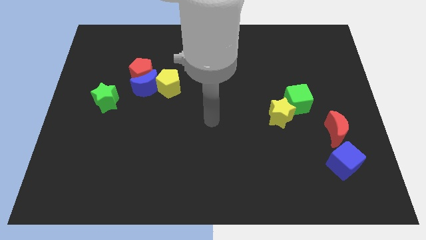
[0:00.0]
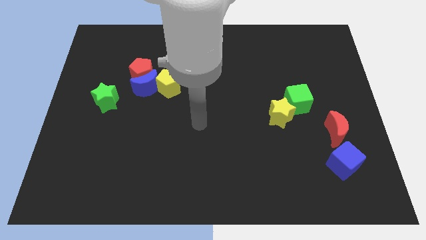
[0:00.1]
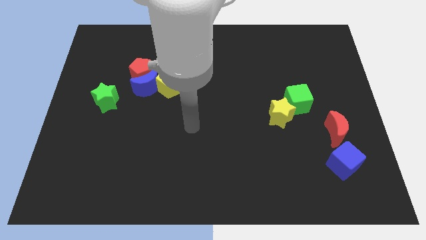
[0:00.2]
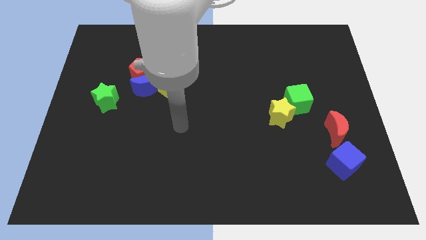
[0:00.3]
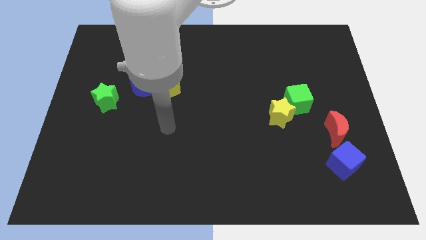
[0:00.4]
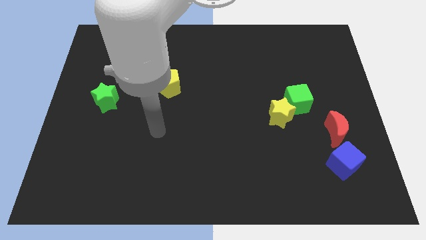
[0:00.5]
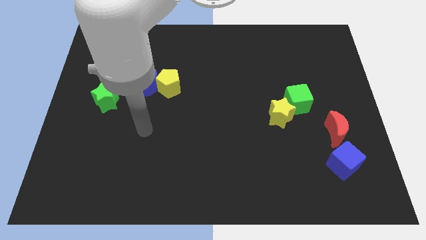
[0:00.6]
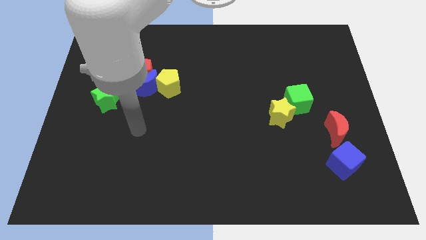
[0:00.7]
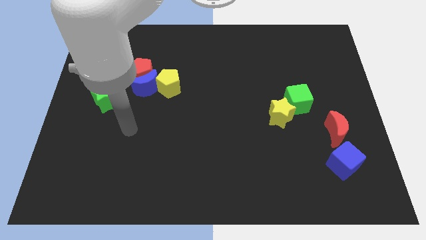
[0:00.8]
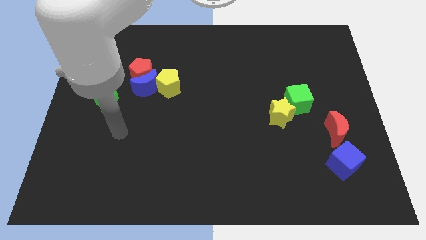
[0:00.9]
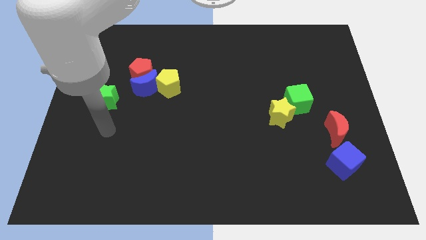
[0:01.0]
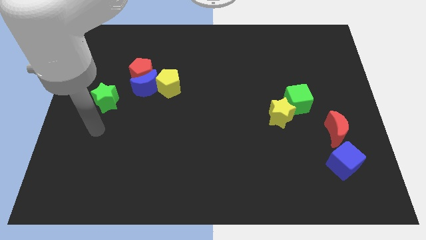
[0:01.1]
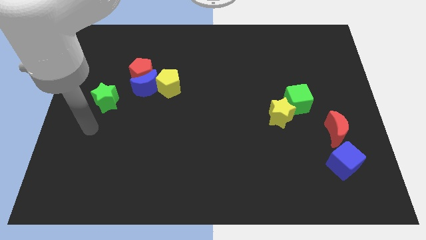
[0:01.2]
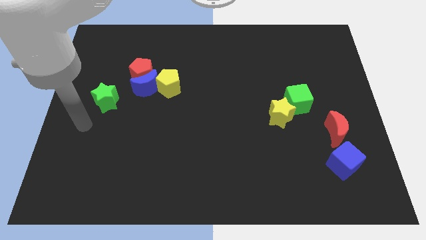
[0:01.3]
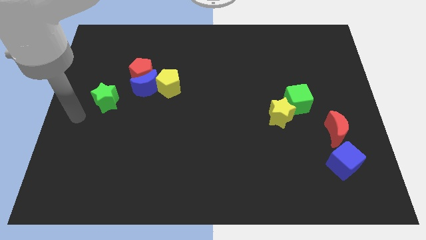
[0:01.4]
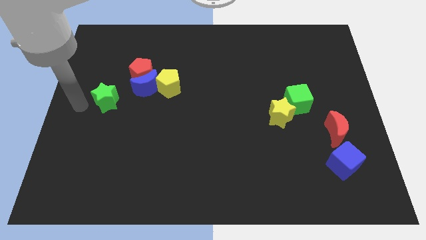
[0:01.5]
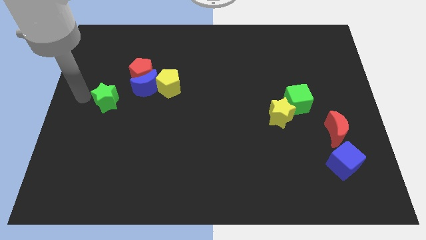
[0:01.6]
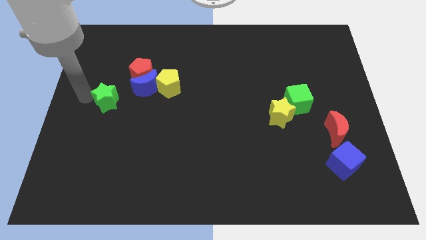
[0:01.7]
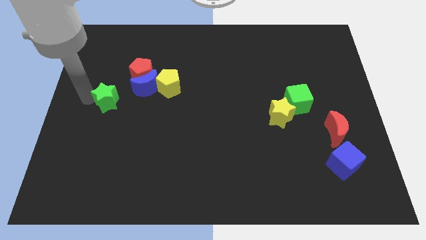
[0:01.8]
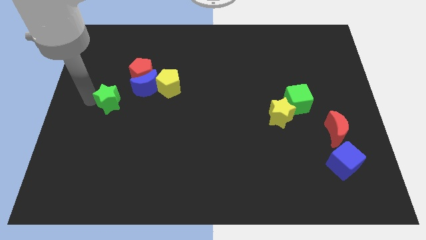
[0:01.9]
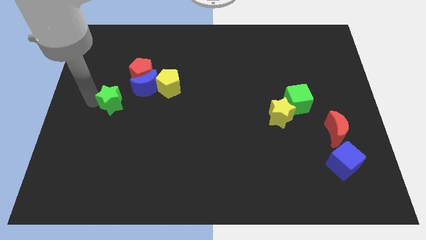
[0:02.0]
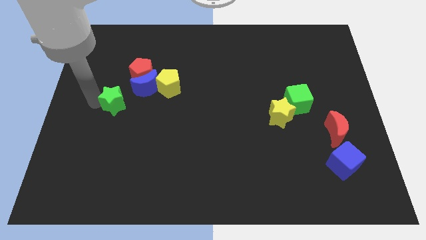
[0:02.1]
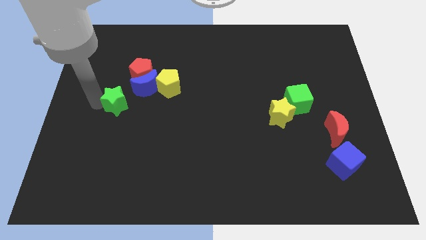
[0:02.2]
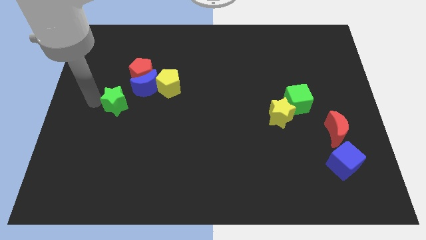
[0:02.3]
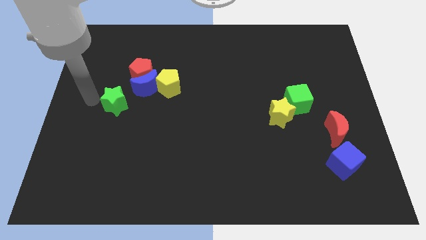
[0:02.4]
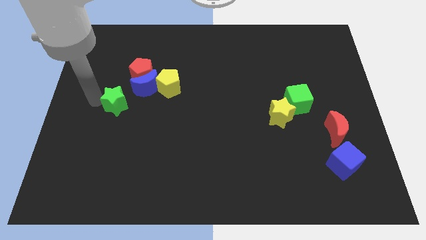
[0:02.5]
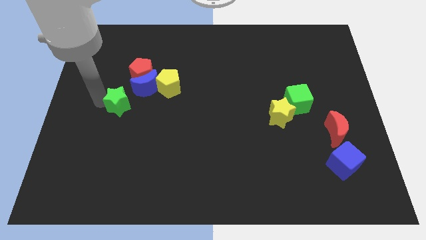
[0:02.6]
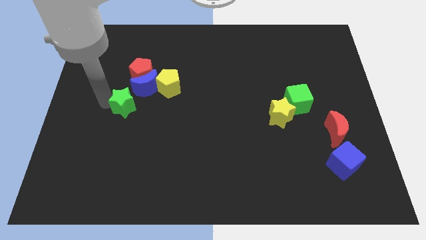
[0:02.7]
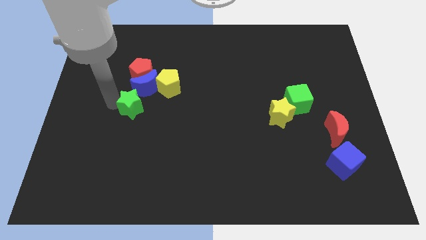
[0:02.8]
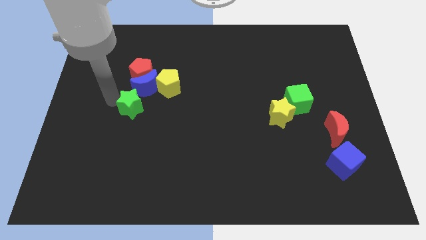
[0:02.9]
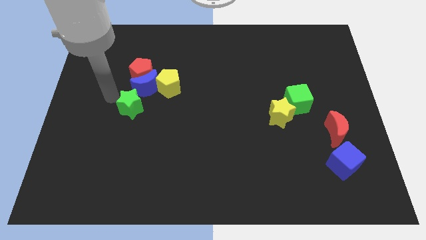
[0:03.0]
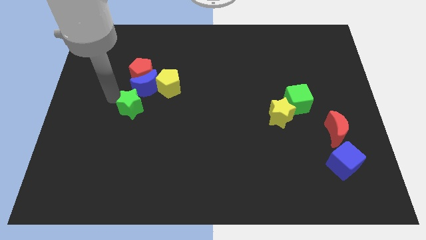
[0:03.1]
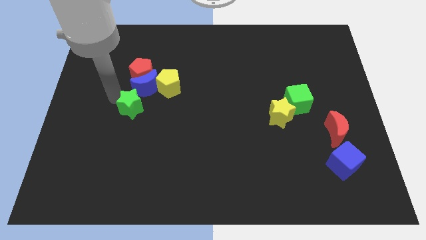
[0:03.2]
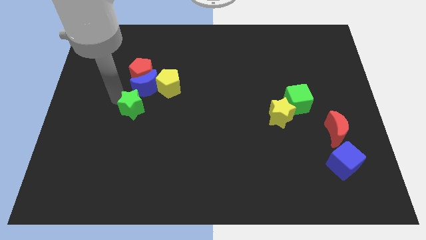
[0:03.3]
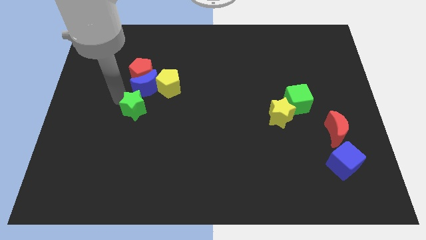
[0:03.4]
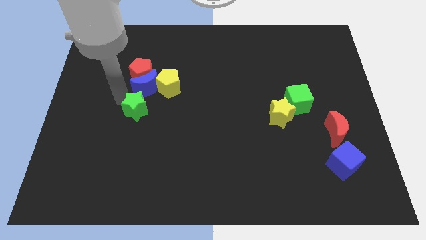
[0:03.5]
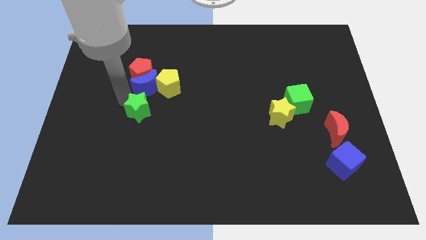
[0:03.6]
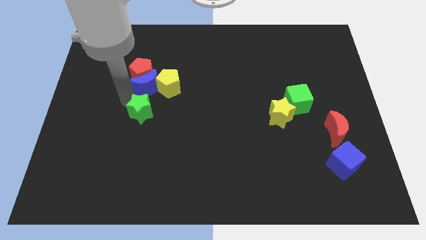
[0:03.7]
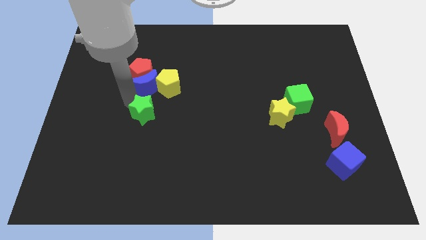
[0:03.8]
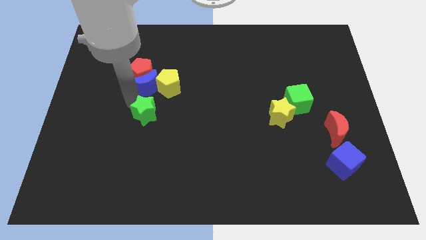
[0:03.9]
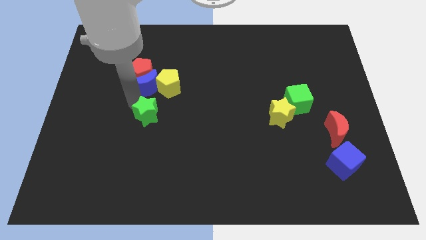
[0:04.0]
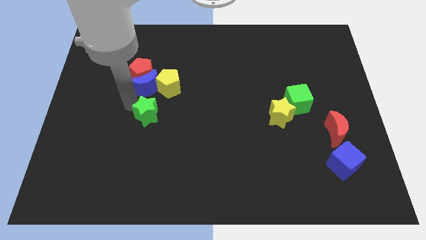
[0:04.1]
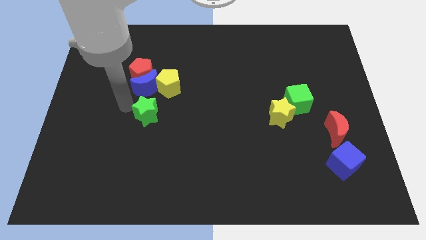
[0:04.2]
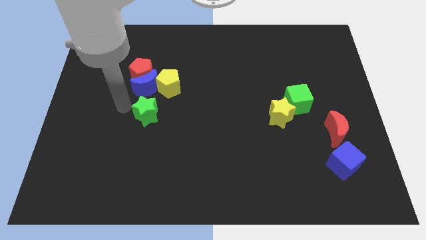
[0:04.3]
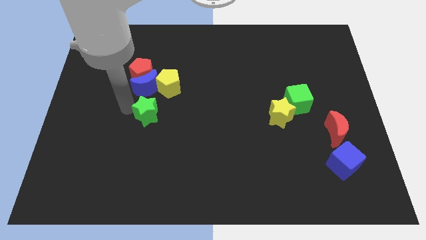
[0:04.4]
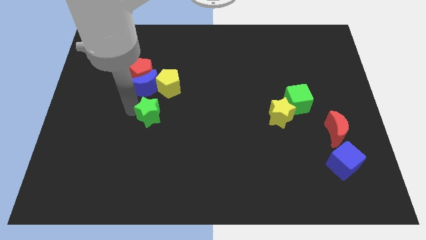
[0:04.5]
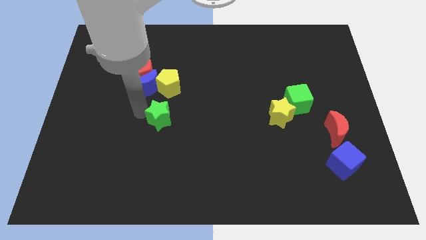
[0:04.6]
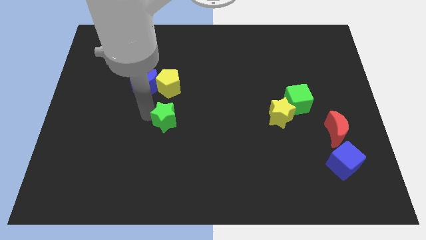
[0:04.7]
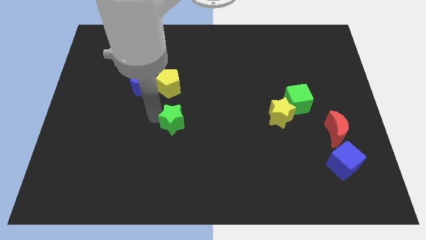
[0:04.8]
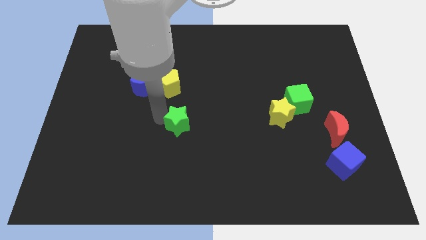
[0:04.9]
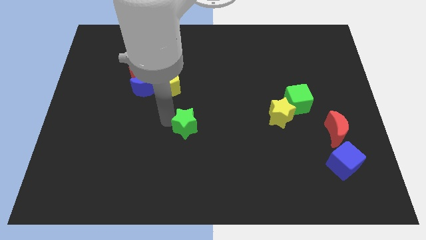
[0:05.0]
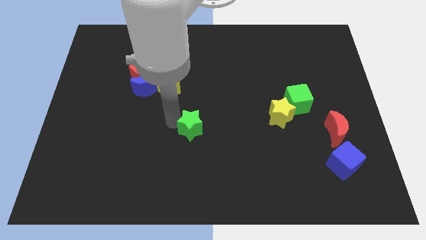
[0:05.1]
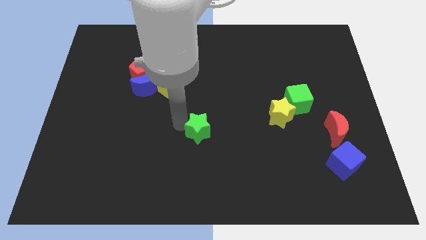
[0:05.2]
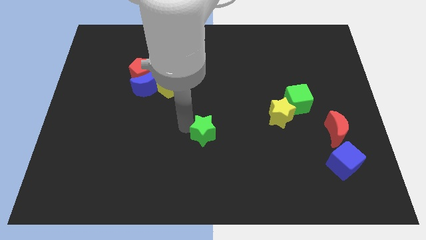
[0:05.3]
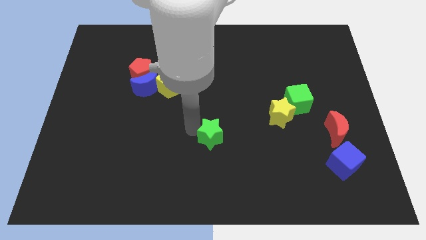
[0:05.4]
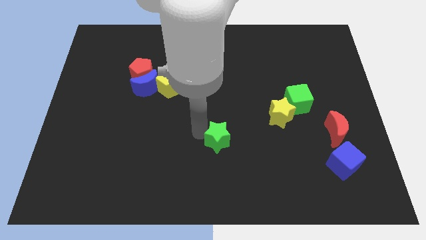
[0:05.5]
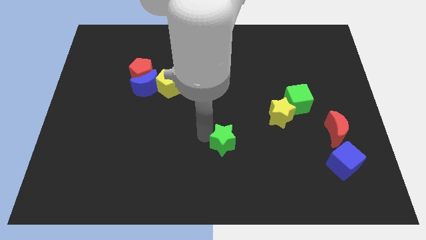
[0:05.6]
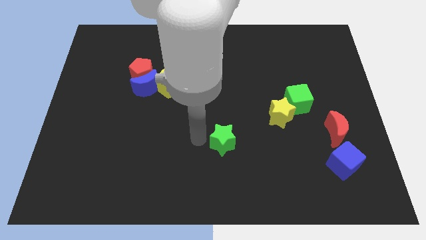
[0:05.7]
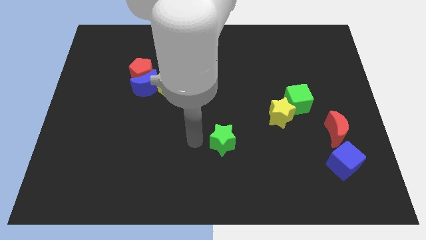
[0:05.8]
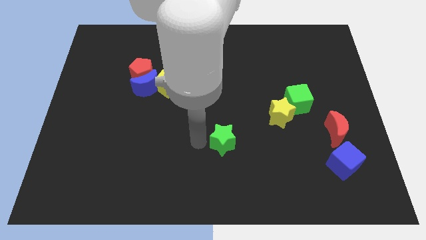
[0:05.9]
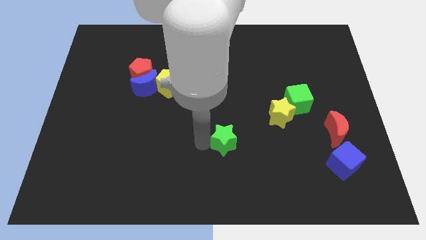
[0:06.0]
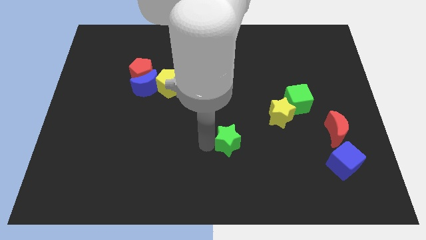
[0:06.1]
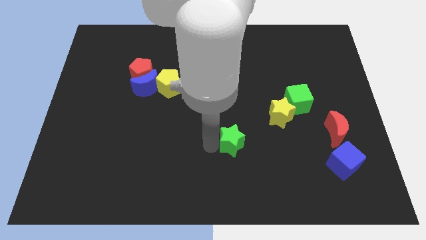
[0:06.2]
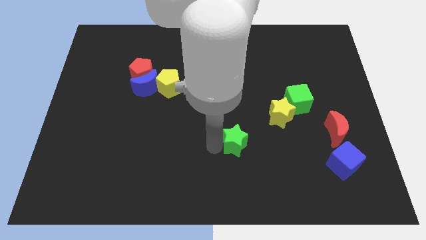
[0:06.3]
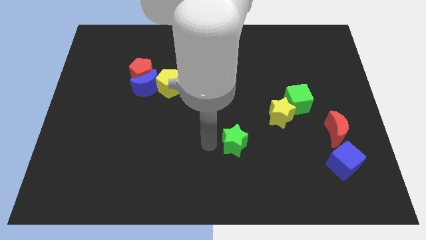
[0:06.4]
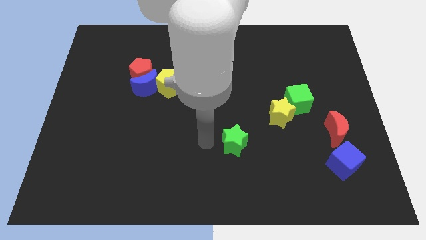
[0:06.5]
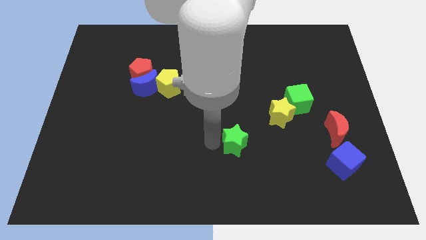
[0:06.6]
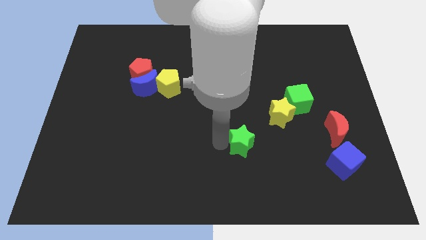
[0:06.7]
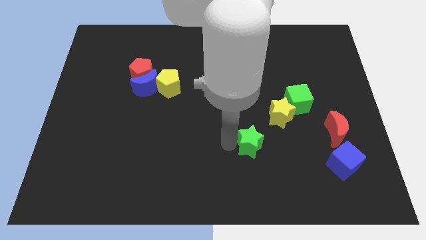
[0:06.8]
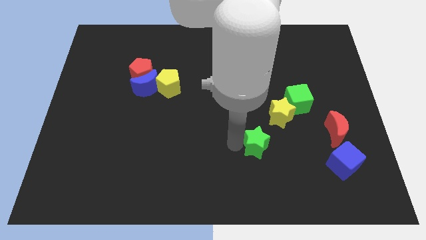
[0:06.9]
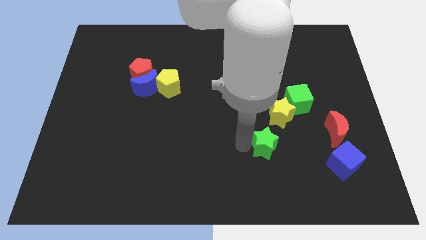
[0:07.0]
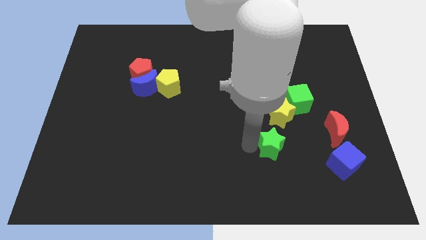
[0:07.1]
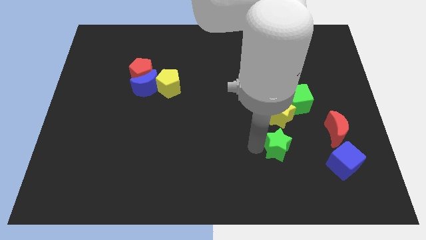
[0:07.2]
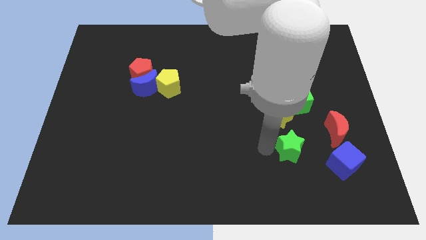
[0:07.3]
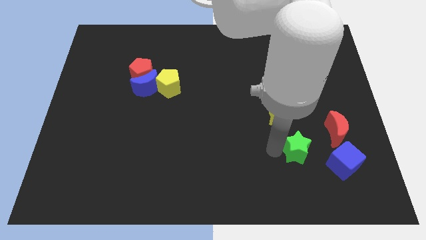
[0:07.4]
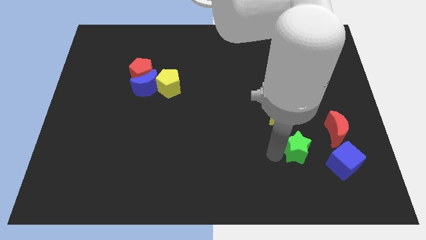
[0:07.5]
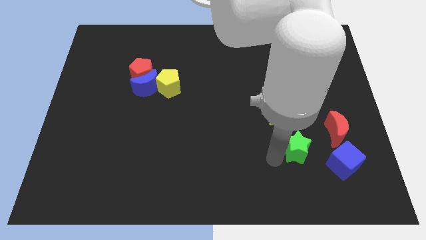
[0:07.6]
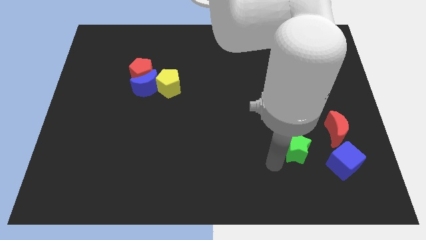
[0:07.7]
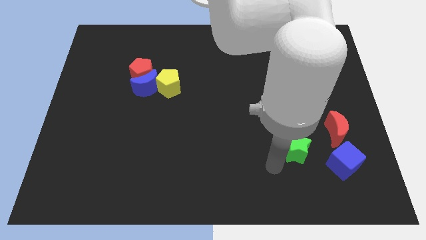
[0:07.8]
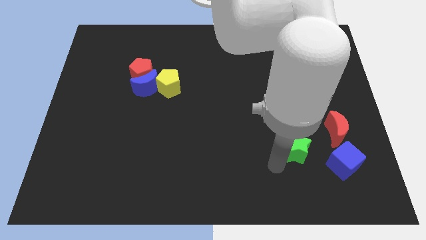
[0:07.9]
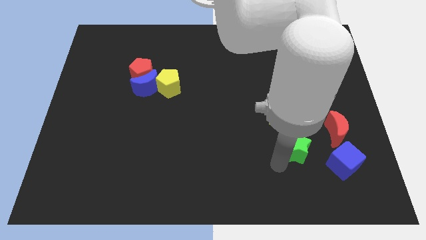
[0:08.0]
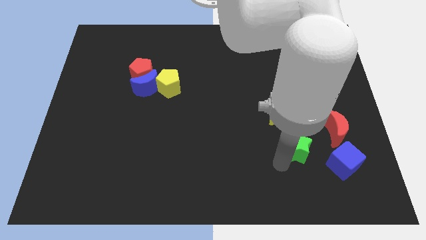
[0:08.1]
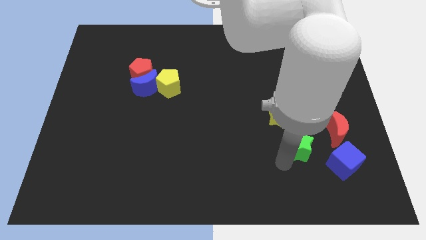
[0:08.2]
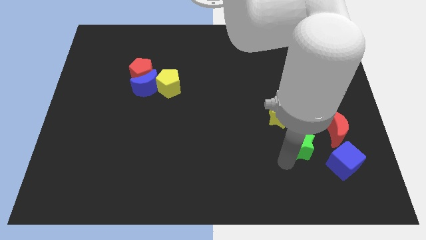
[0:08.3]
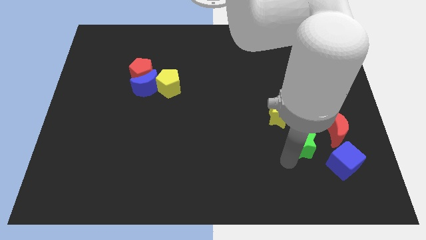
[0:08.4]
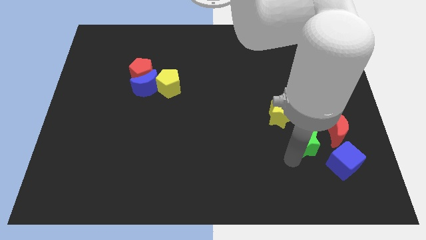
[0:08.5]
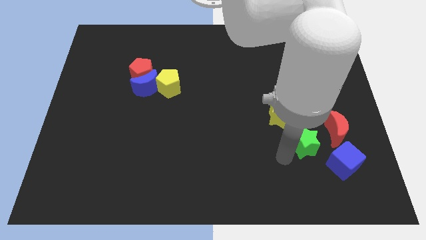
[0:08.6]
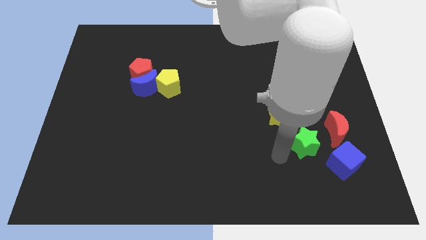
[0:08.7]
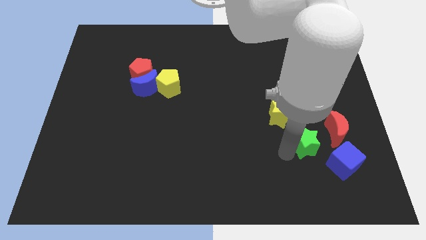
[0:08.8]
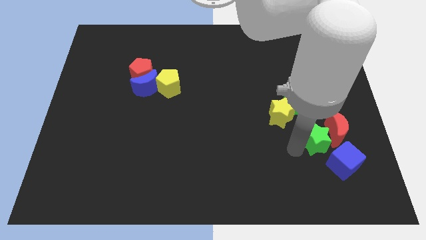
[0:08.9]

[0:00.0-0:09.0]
put the green star close to the red moon
